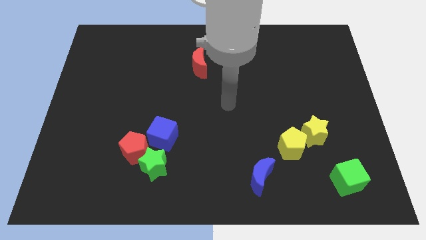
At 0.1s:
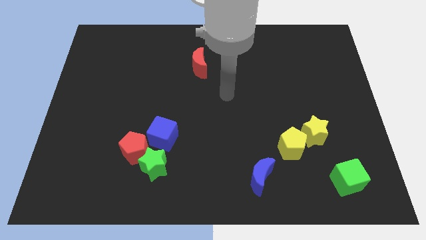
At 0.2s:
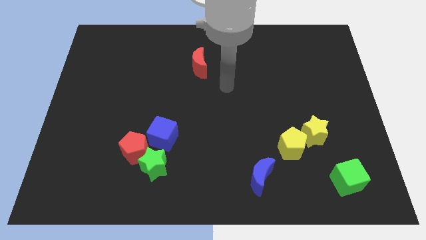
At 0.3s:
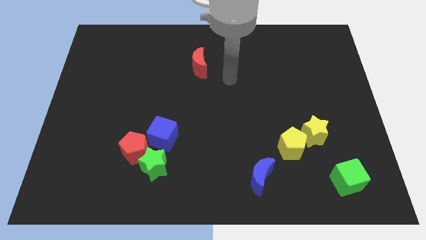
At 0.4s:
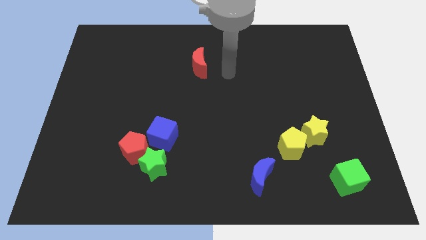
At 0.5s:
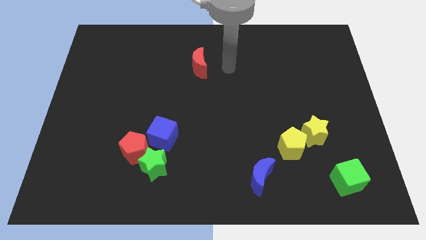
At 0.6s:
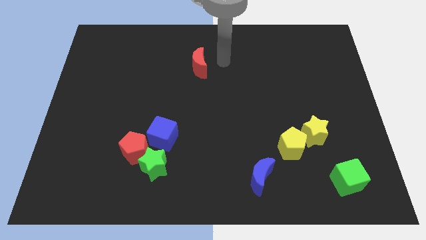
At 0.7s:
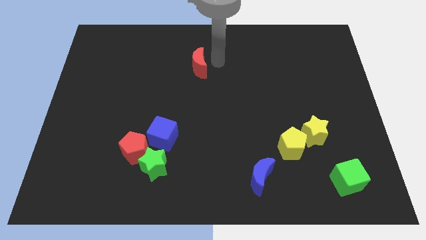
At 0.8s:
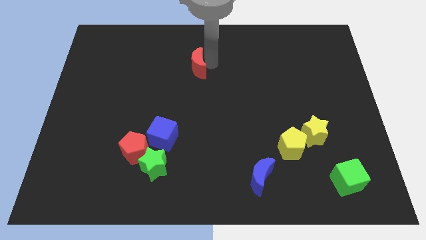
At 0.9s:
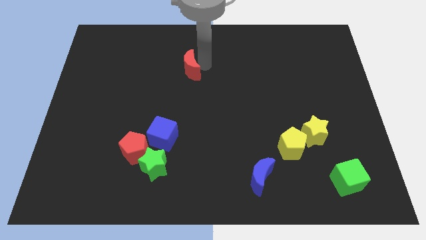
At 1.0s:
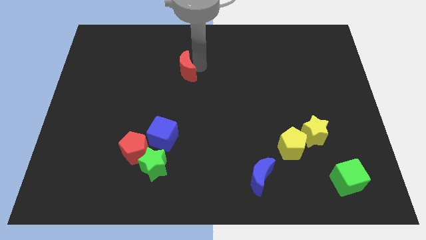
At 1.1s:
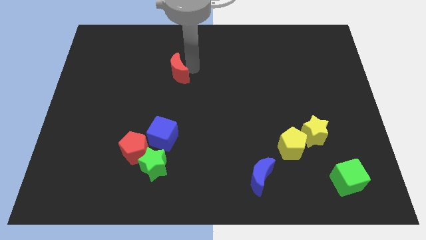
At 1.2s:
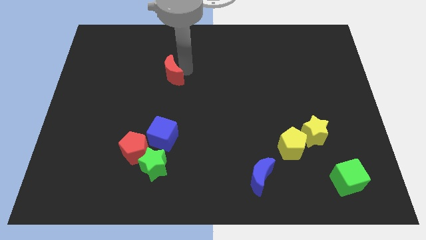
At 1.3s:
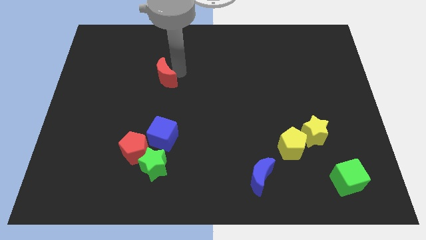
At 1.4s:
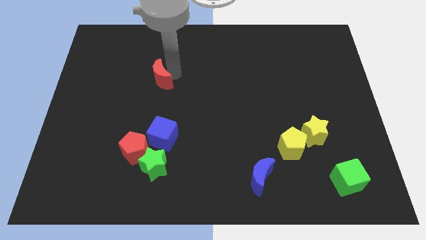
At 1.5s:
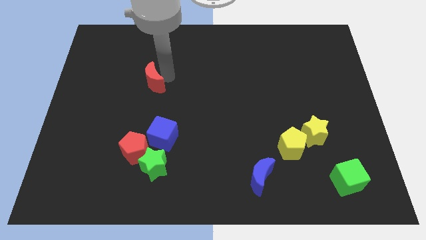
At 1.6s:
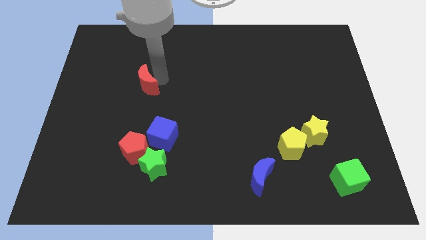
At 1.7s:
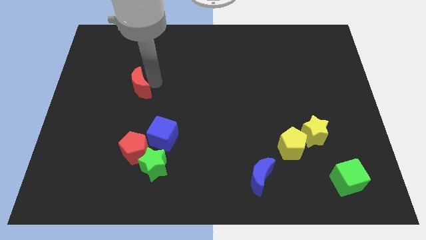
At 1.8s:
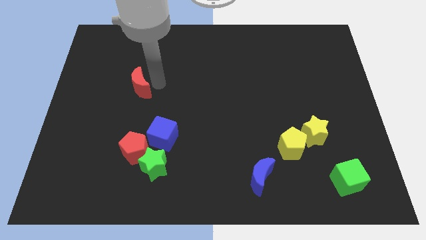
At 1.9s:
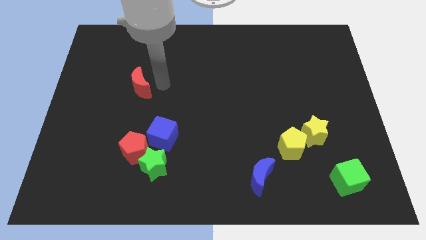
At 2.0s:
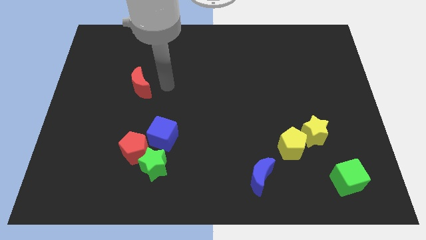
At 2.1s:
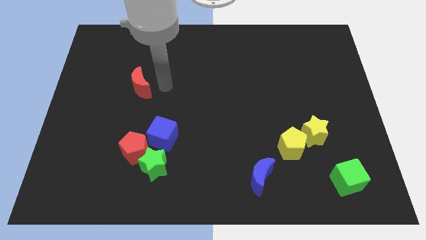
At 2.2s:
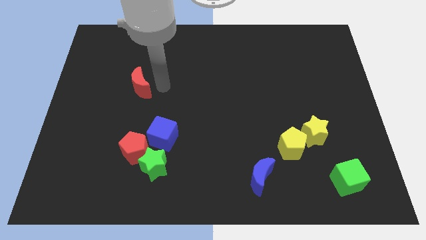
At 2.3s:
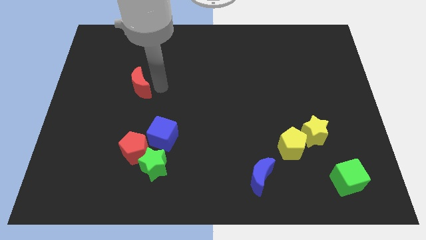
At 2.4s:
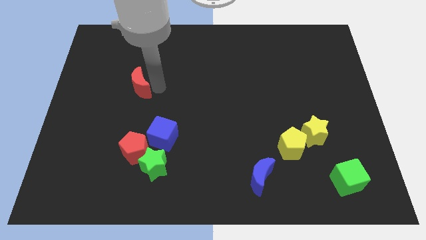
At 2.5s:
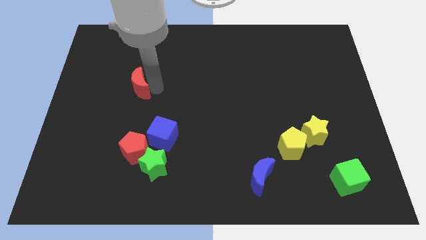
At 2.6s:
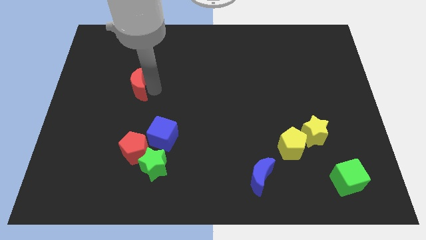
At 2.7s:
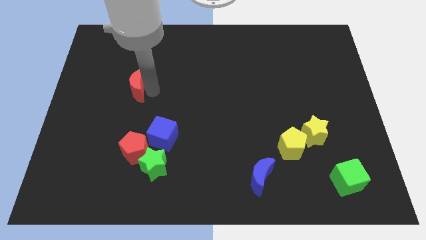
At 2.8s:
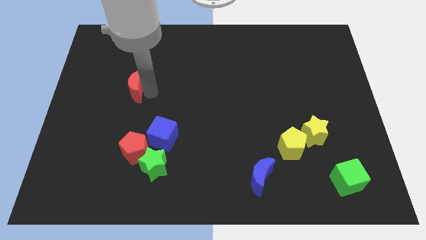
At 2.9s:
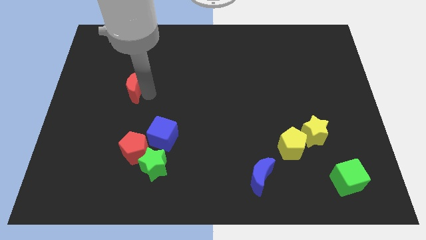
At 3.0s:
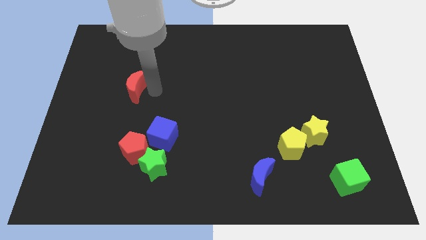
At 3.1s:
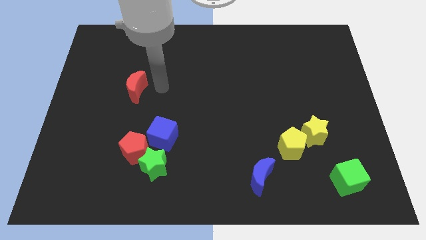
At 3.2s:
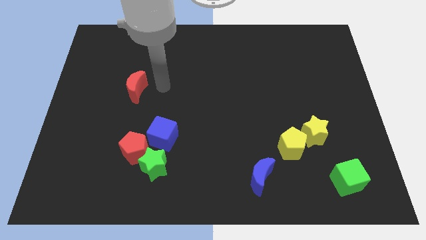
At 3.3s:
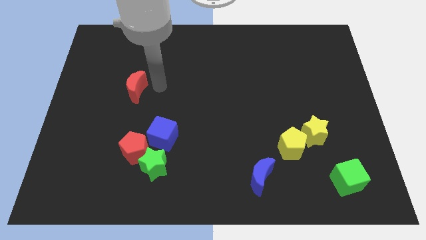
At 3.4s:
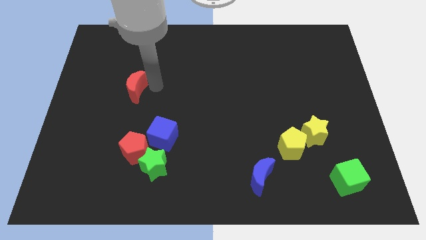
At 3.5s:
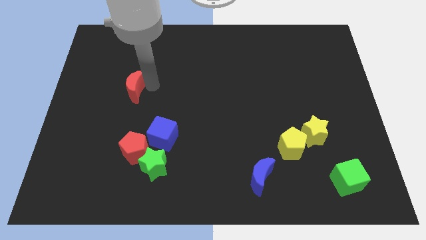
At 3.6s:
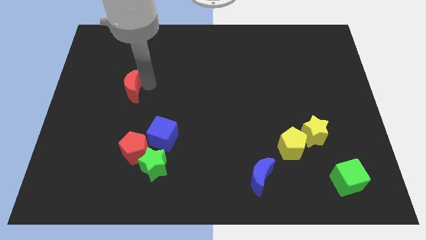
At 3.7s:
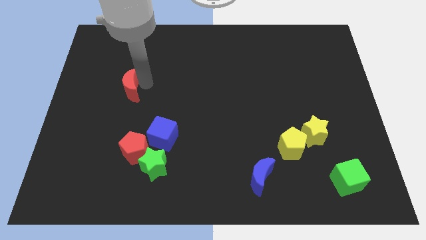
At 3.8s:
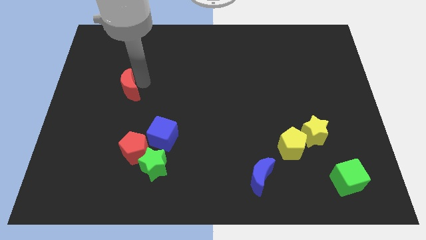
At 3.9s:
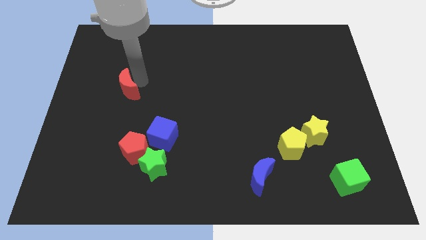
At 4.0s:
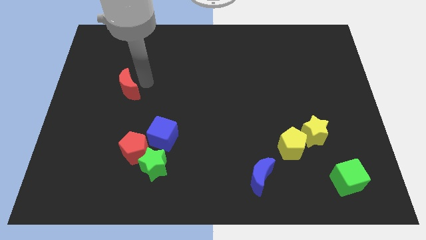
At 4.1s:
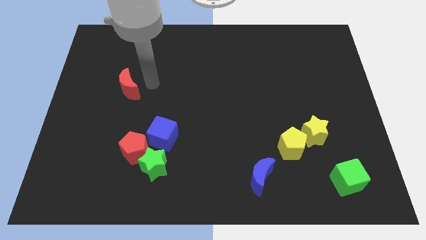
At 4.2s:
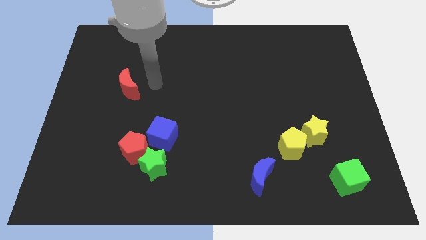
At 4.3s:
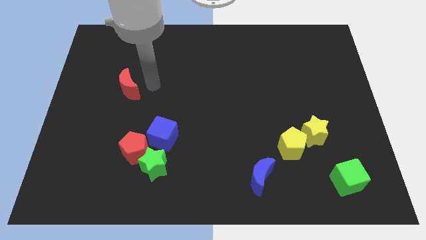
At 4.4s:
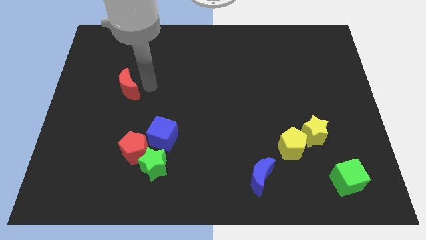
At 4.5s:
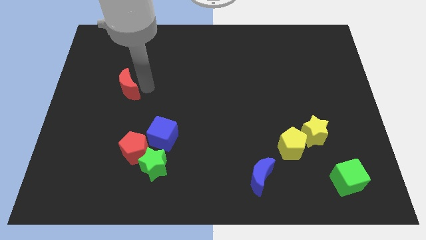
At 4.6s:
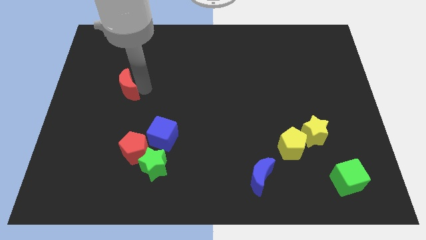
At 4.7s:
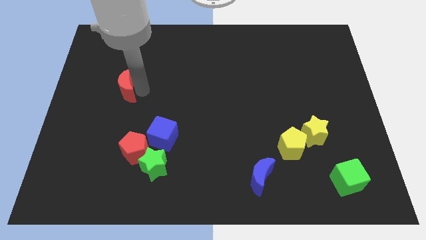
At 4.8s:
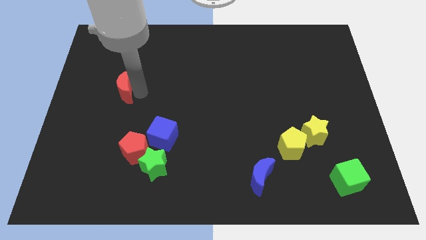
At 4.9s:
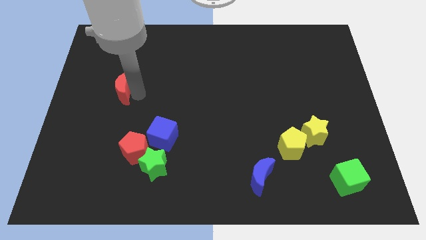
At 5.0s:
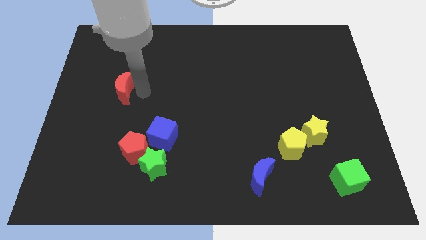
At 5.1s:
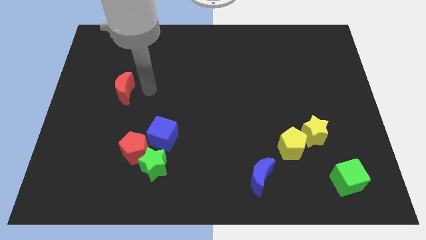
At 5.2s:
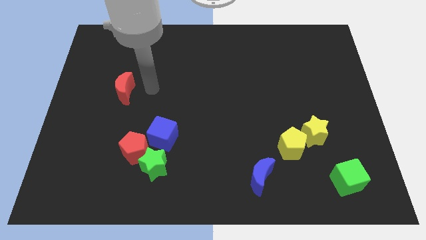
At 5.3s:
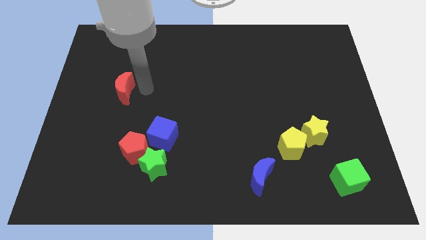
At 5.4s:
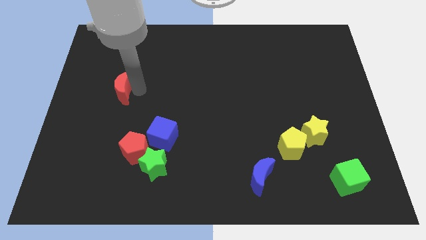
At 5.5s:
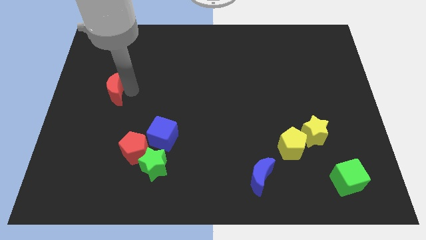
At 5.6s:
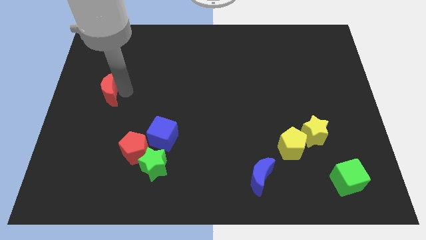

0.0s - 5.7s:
push the red moon to the left side of the board
